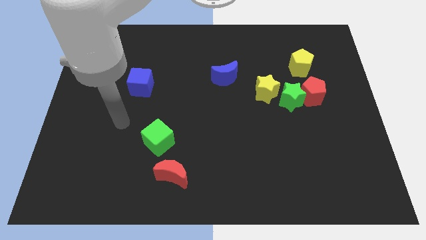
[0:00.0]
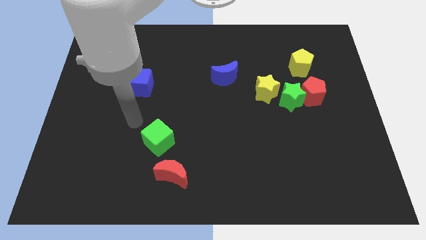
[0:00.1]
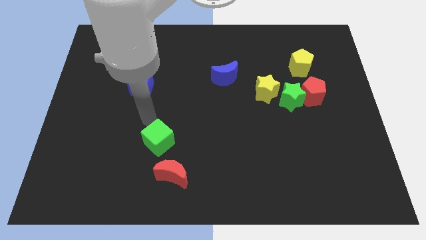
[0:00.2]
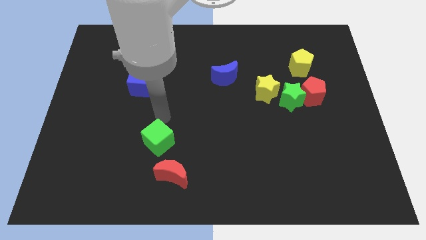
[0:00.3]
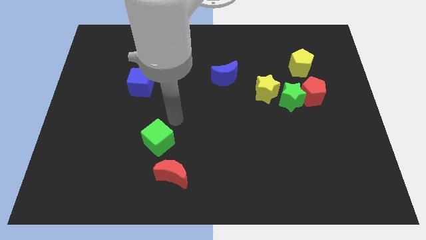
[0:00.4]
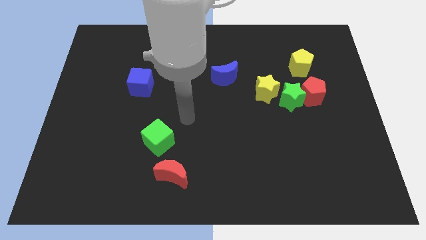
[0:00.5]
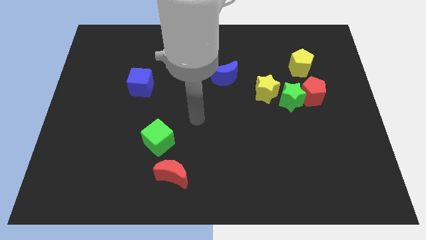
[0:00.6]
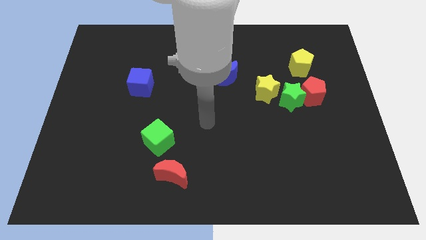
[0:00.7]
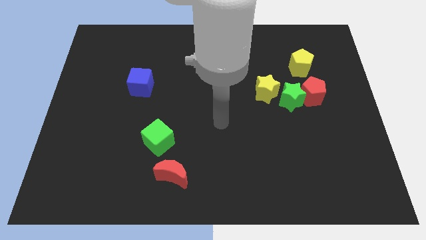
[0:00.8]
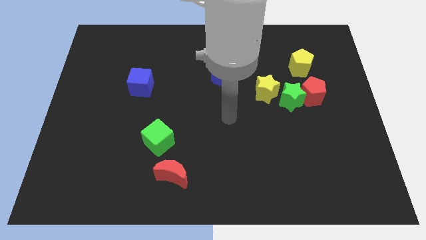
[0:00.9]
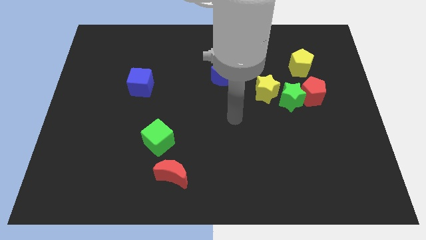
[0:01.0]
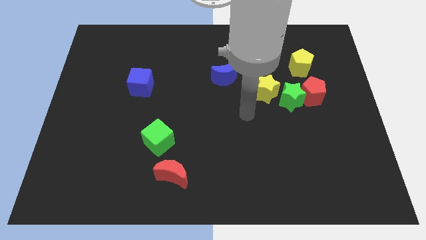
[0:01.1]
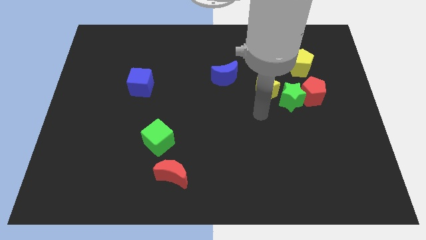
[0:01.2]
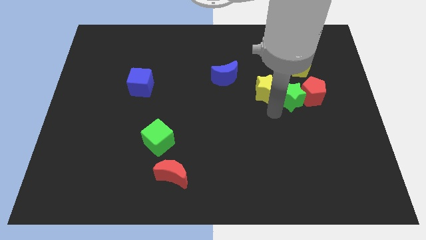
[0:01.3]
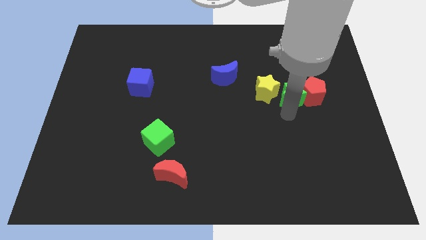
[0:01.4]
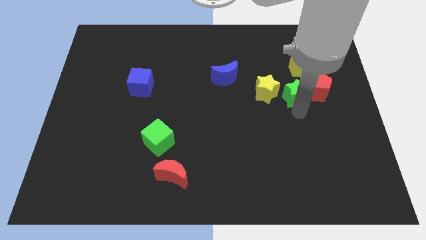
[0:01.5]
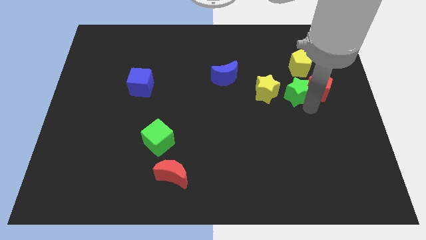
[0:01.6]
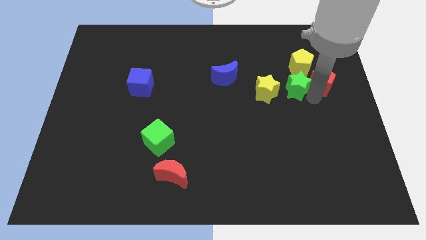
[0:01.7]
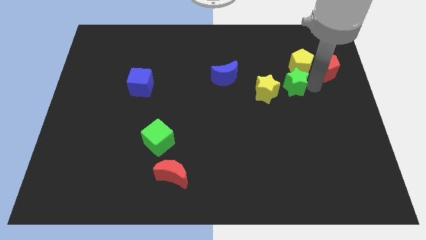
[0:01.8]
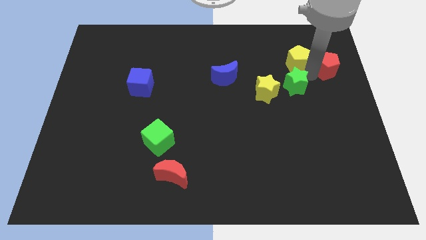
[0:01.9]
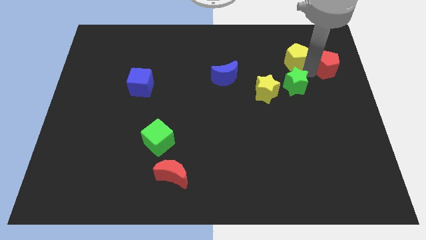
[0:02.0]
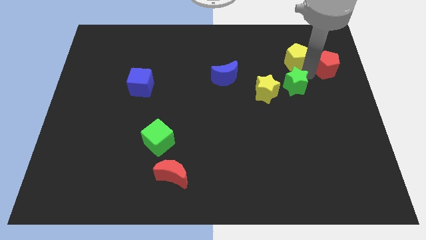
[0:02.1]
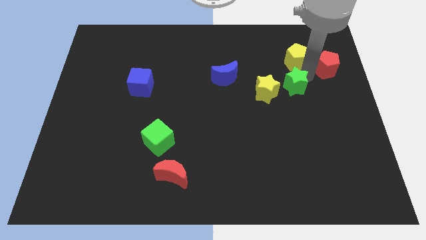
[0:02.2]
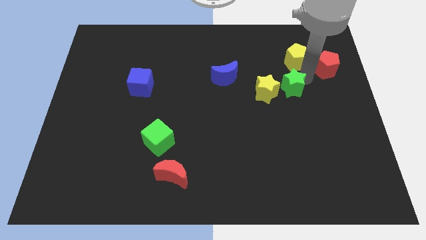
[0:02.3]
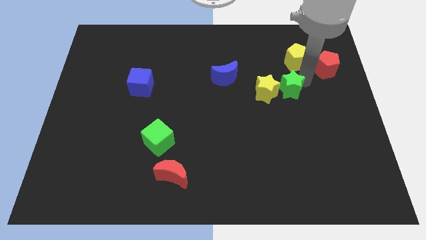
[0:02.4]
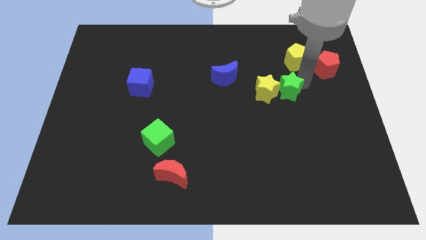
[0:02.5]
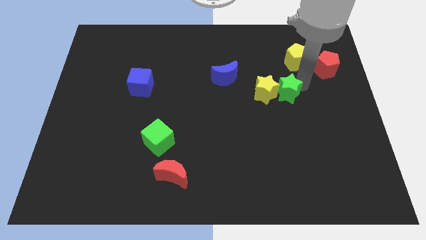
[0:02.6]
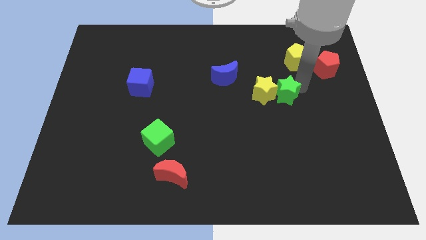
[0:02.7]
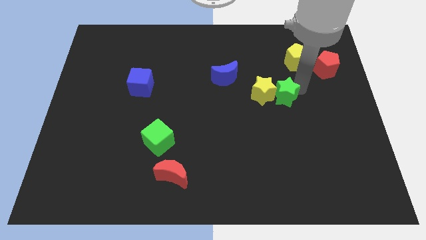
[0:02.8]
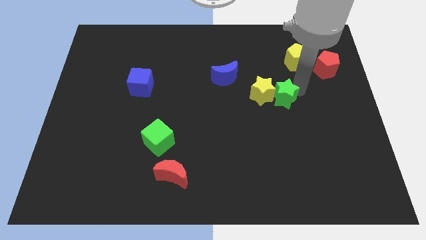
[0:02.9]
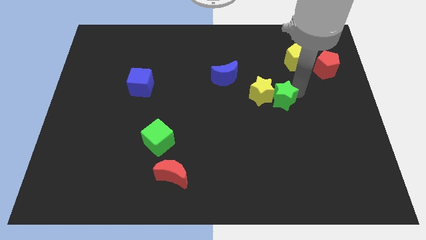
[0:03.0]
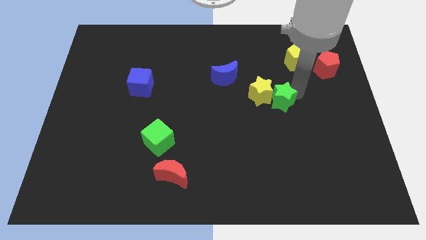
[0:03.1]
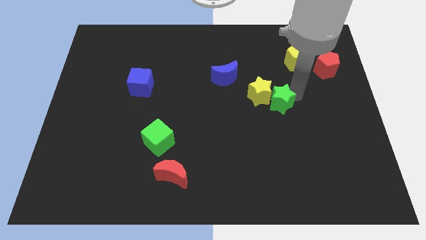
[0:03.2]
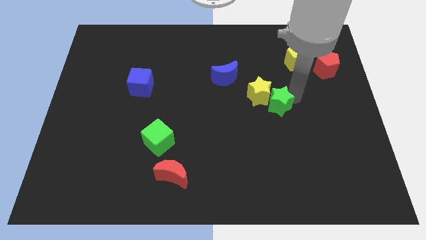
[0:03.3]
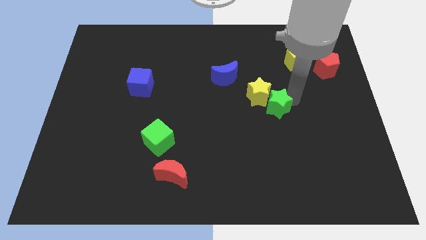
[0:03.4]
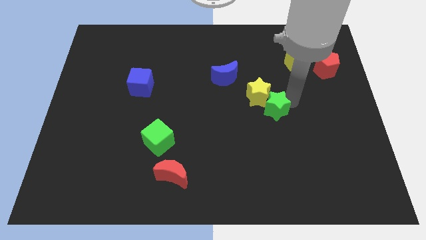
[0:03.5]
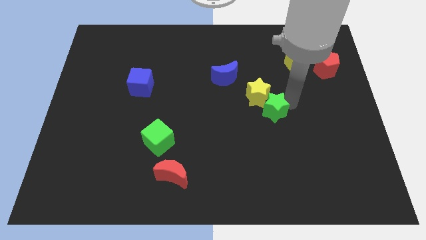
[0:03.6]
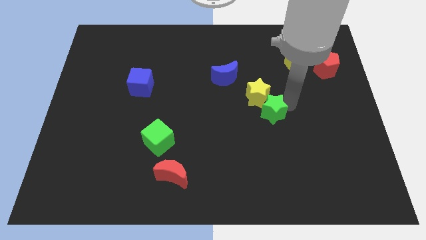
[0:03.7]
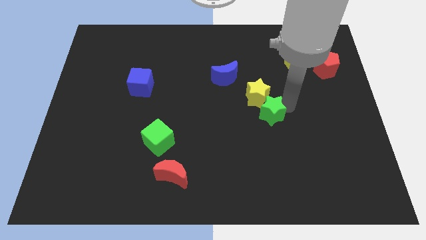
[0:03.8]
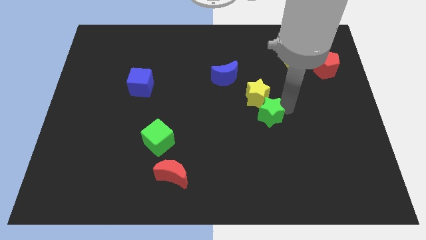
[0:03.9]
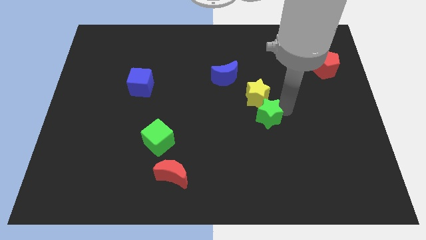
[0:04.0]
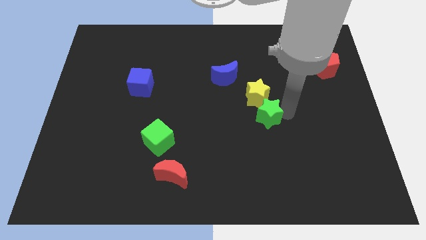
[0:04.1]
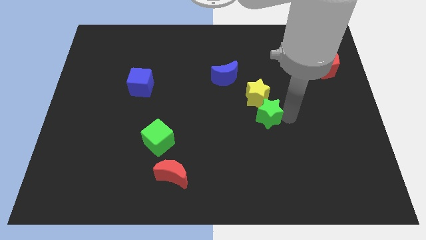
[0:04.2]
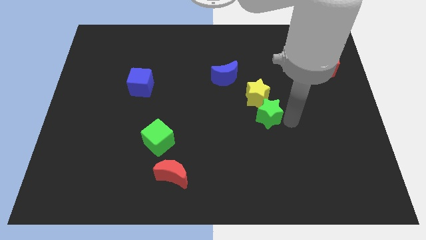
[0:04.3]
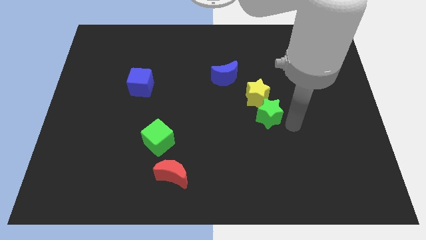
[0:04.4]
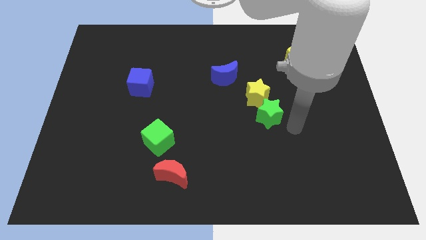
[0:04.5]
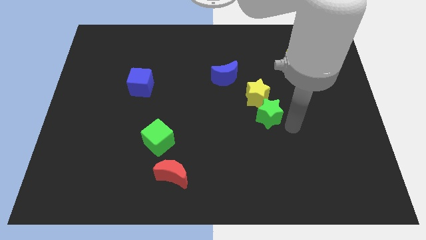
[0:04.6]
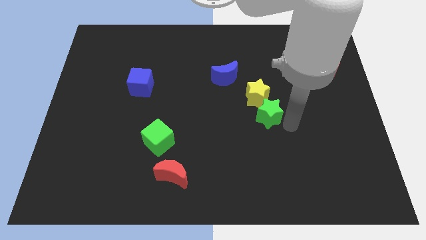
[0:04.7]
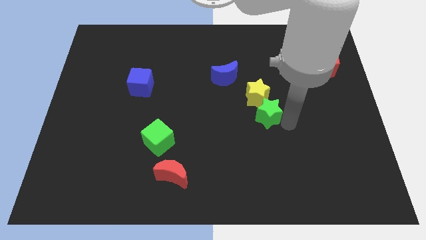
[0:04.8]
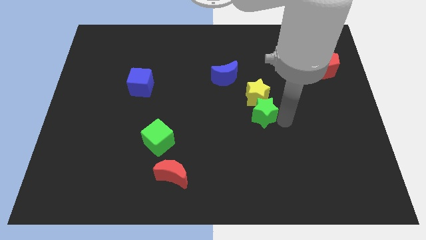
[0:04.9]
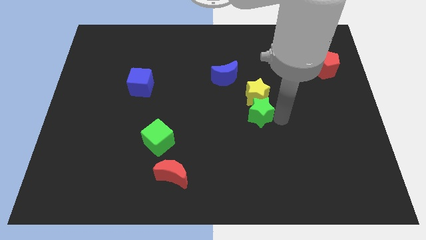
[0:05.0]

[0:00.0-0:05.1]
move the green star to the left a bit

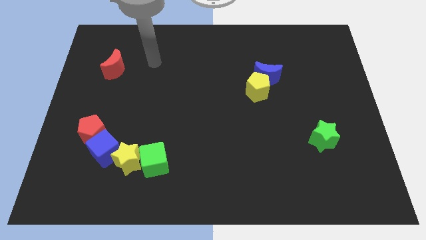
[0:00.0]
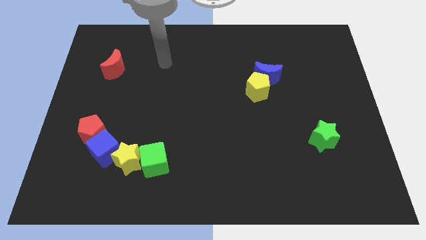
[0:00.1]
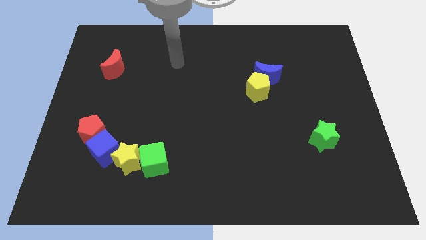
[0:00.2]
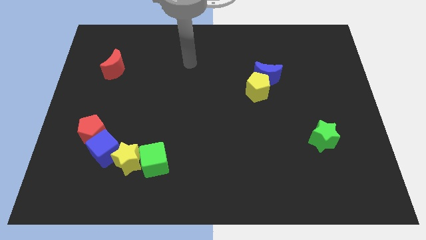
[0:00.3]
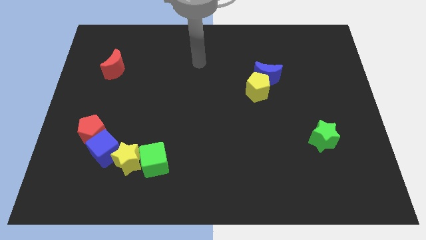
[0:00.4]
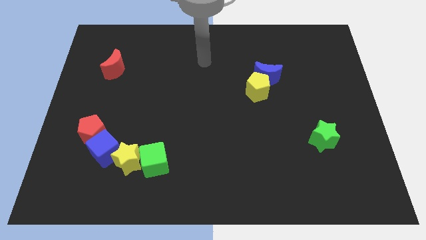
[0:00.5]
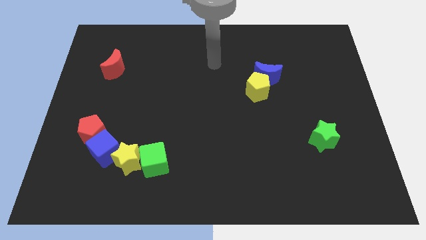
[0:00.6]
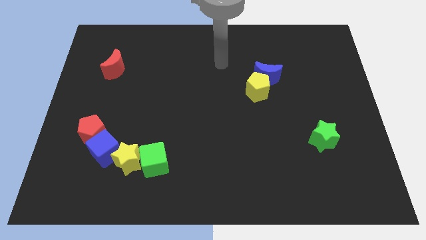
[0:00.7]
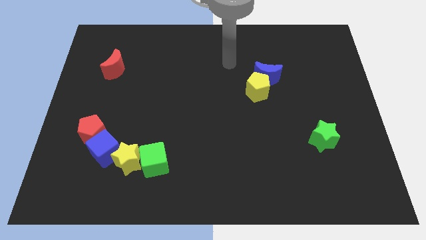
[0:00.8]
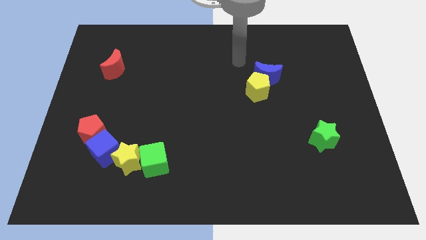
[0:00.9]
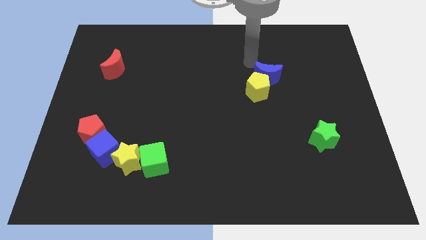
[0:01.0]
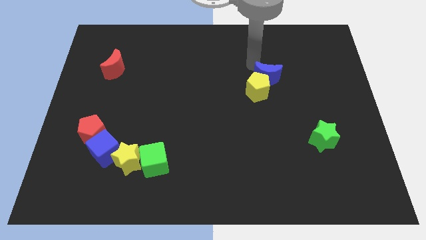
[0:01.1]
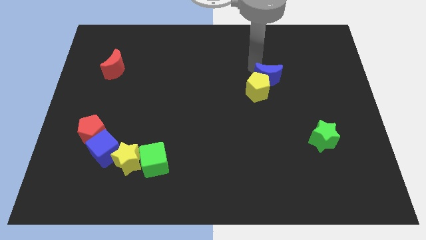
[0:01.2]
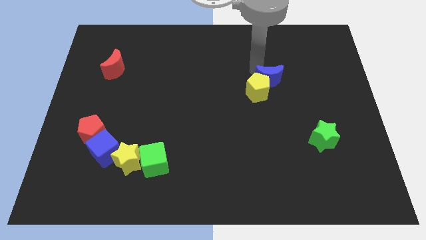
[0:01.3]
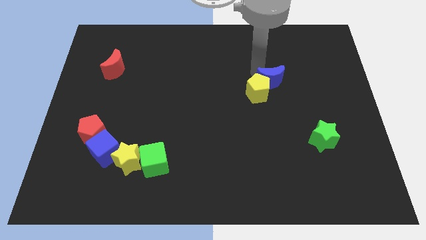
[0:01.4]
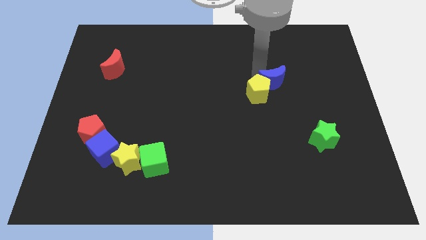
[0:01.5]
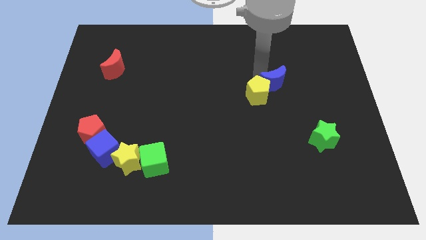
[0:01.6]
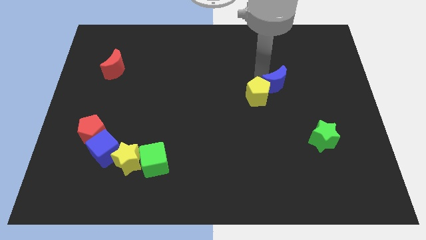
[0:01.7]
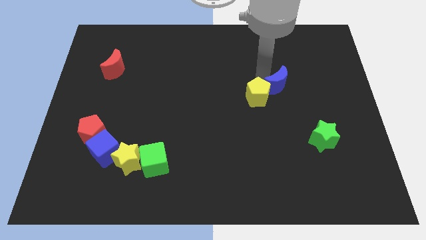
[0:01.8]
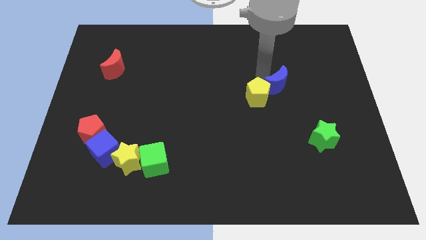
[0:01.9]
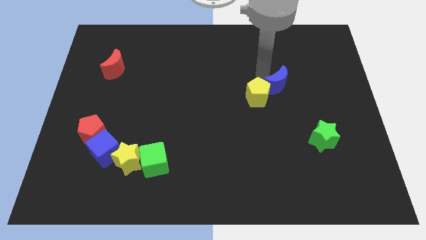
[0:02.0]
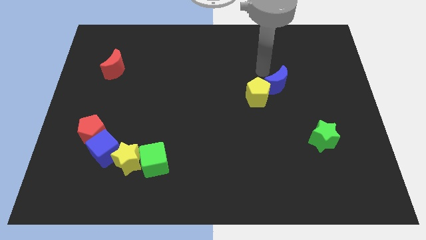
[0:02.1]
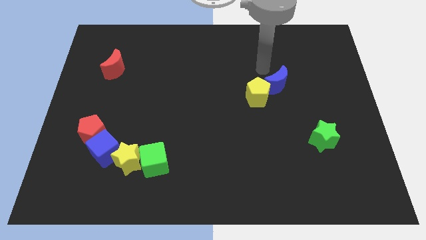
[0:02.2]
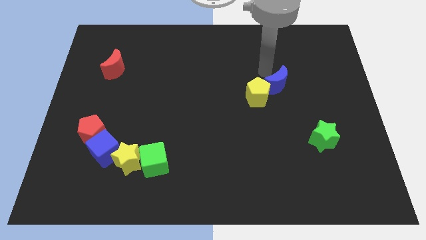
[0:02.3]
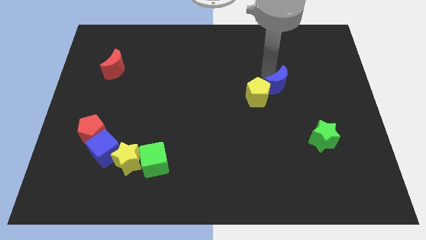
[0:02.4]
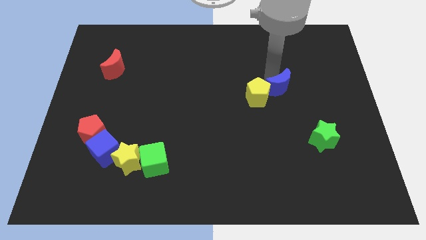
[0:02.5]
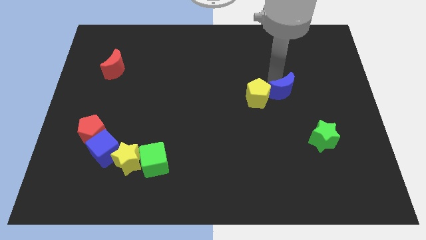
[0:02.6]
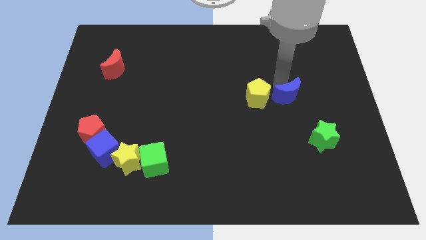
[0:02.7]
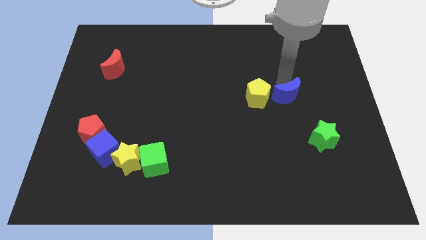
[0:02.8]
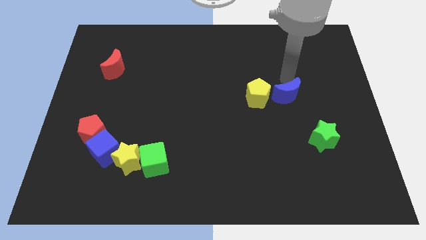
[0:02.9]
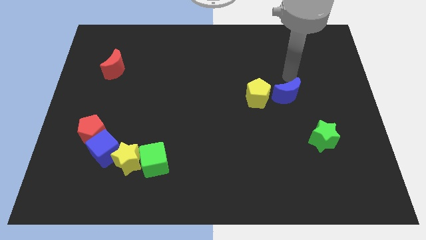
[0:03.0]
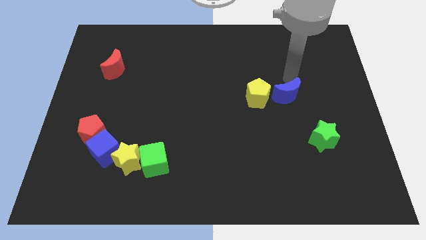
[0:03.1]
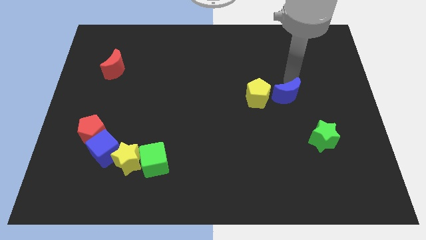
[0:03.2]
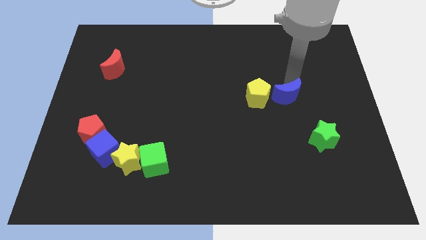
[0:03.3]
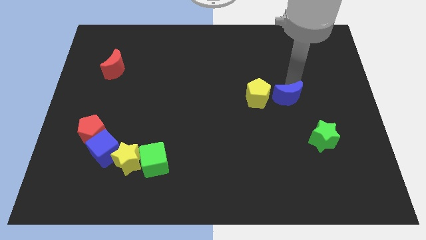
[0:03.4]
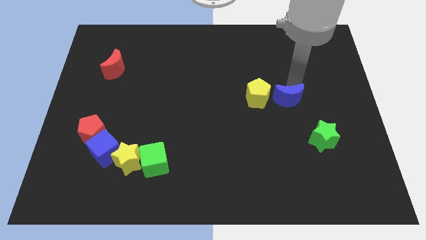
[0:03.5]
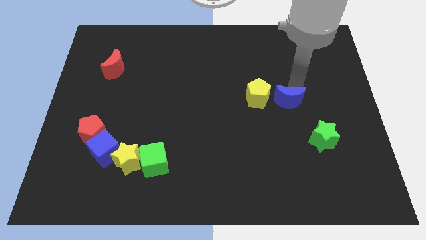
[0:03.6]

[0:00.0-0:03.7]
push the blue moon somewhat down
